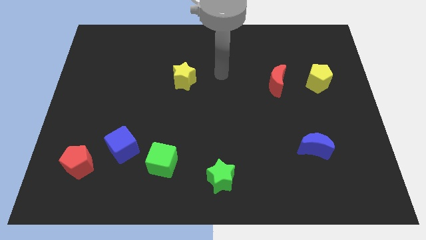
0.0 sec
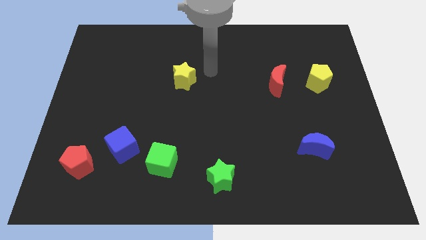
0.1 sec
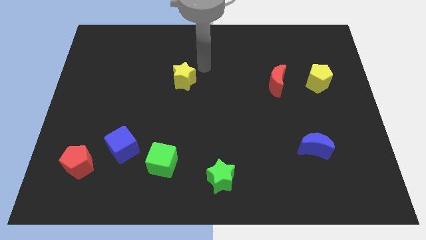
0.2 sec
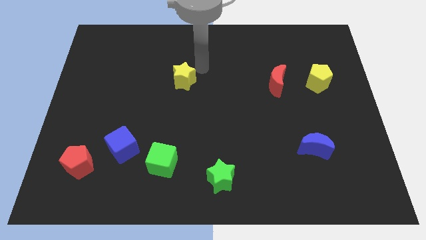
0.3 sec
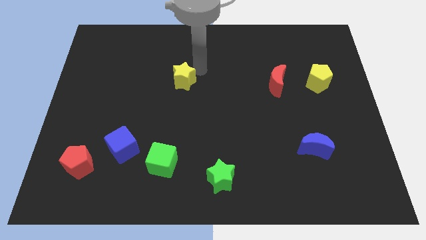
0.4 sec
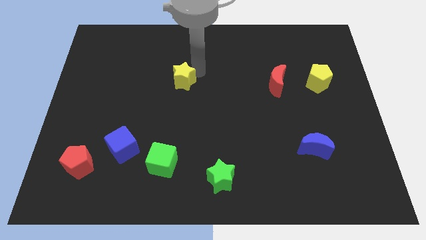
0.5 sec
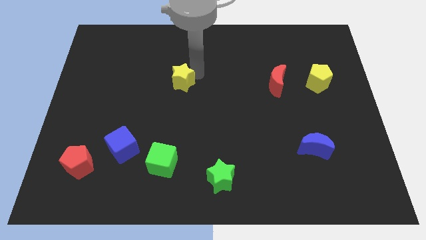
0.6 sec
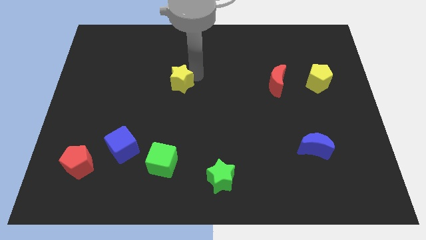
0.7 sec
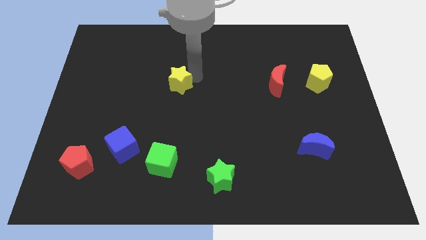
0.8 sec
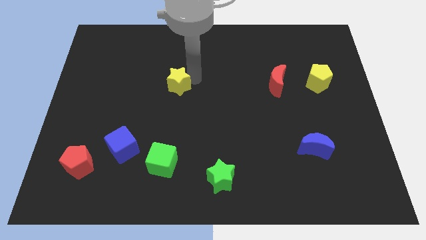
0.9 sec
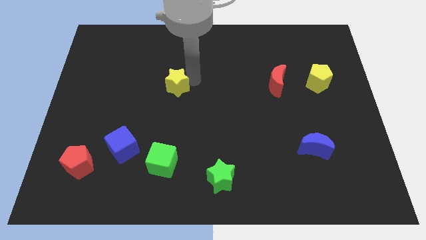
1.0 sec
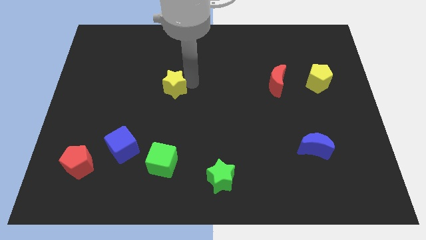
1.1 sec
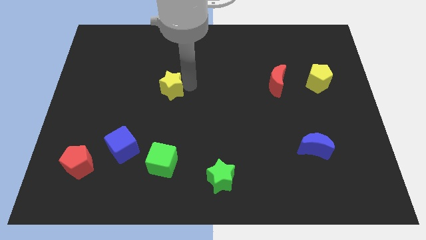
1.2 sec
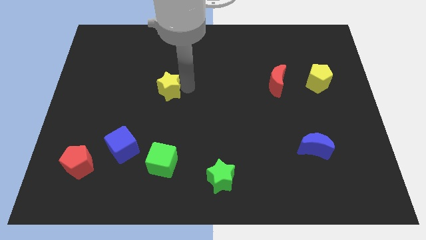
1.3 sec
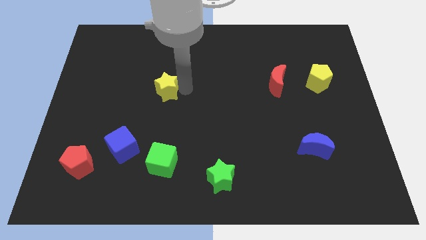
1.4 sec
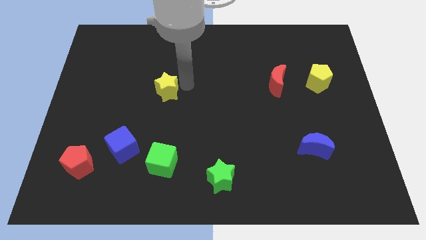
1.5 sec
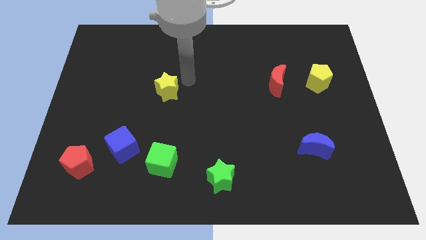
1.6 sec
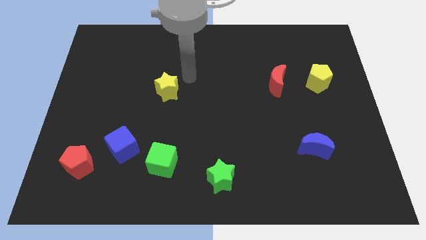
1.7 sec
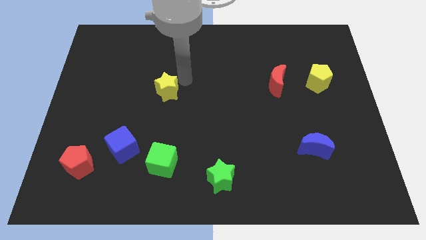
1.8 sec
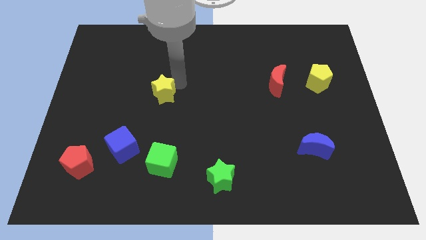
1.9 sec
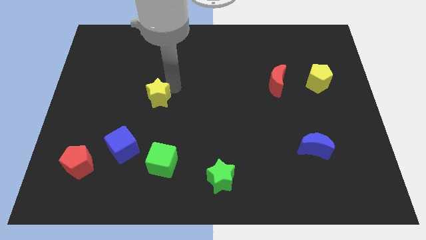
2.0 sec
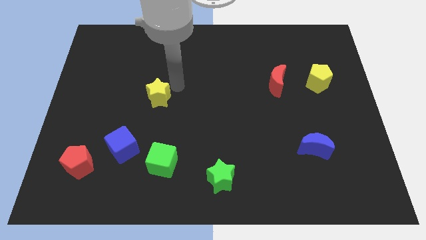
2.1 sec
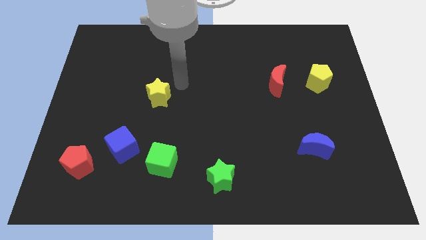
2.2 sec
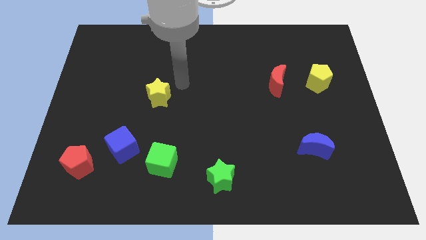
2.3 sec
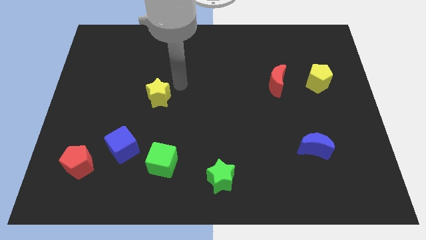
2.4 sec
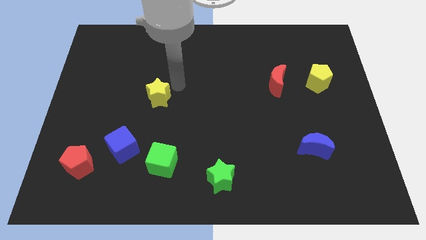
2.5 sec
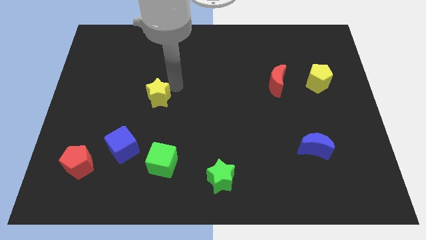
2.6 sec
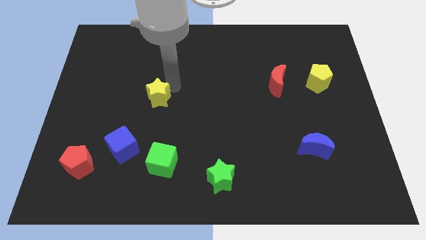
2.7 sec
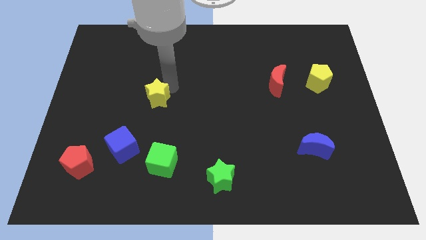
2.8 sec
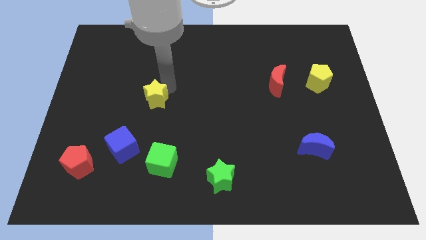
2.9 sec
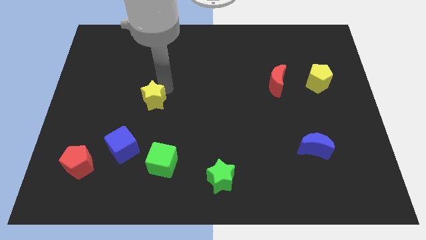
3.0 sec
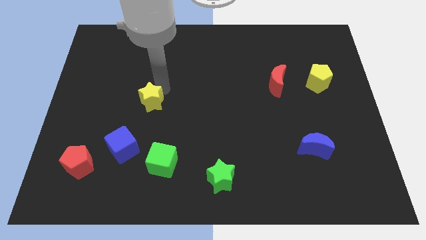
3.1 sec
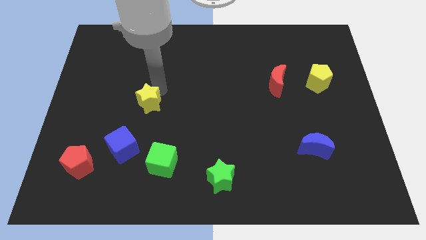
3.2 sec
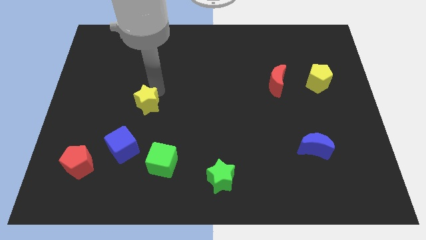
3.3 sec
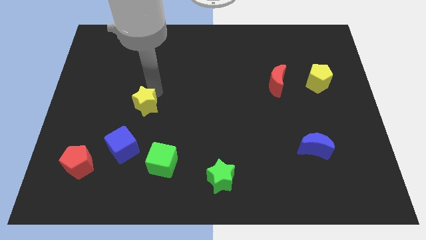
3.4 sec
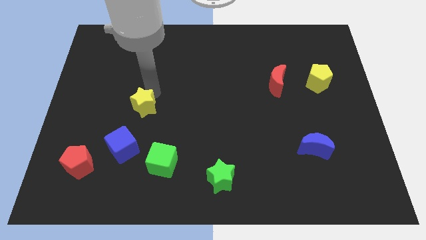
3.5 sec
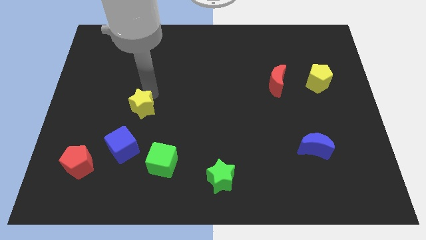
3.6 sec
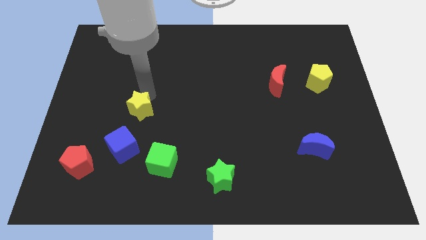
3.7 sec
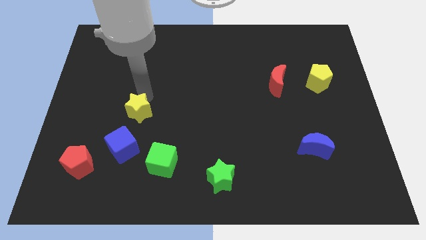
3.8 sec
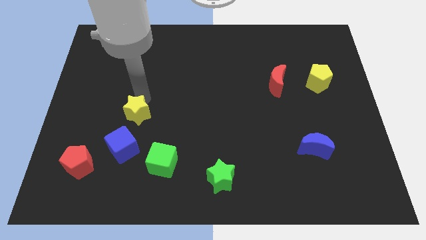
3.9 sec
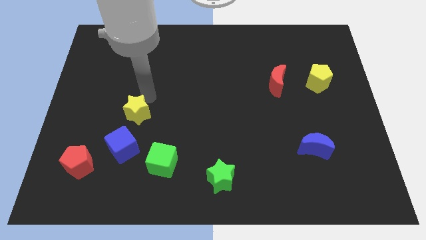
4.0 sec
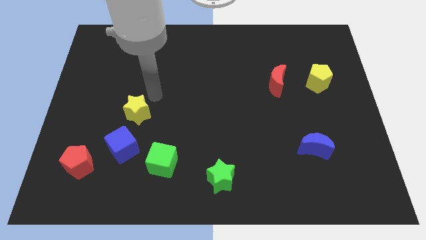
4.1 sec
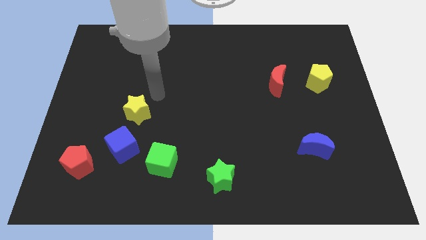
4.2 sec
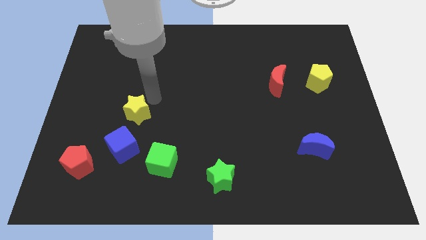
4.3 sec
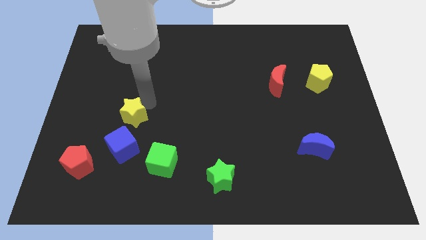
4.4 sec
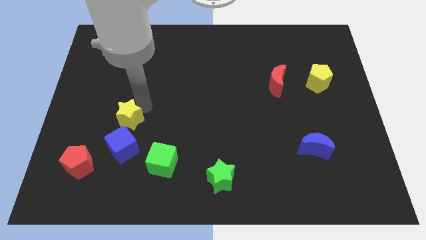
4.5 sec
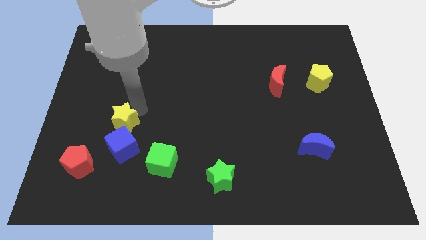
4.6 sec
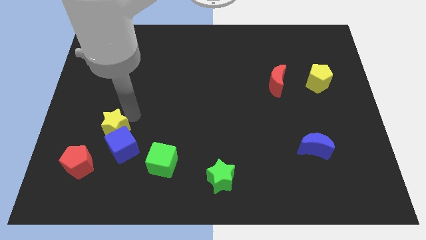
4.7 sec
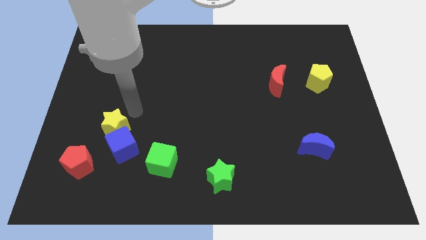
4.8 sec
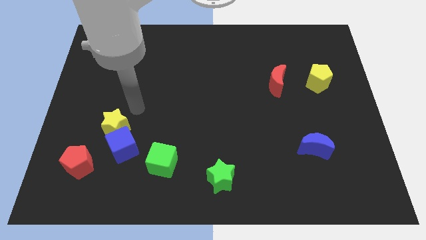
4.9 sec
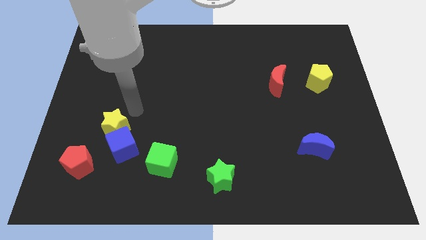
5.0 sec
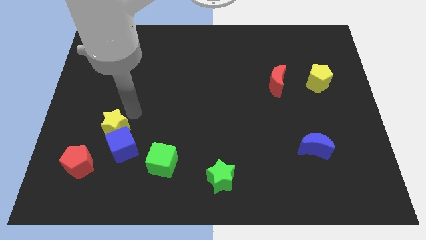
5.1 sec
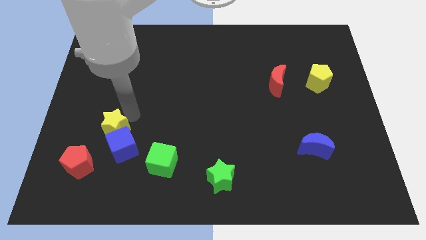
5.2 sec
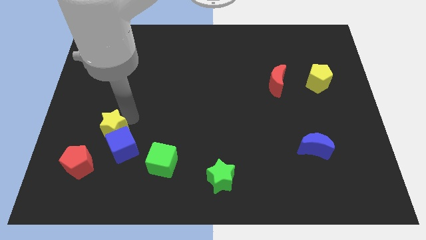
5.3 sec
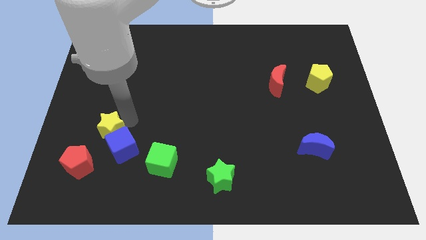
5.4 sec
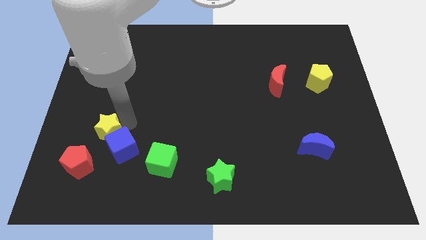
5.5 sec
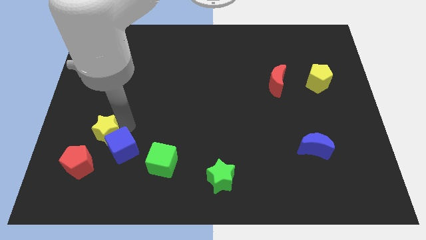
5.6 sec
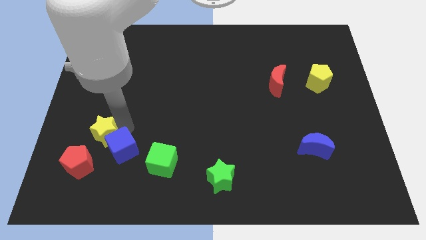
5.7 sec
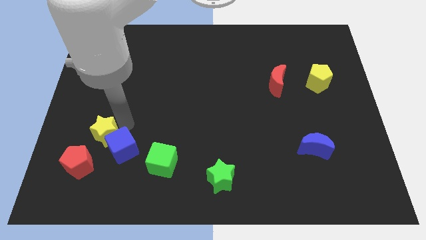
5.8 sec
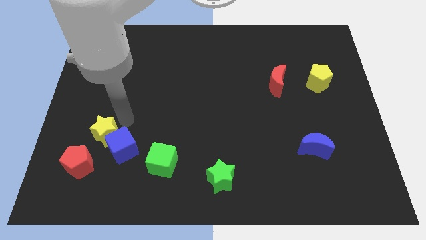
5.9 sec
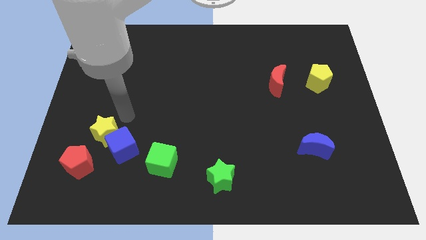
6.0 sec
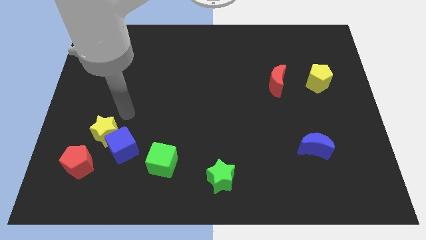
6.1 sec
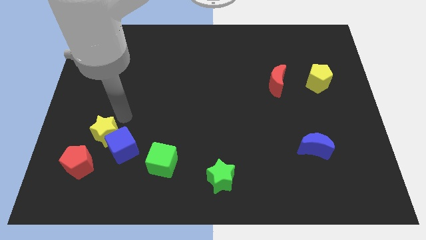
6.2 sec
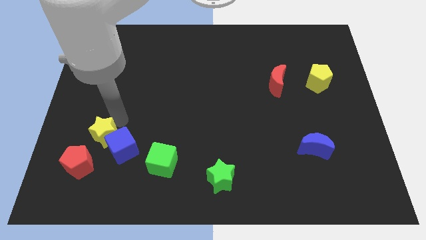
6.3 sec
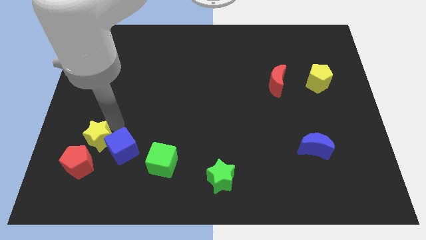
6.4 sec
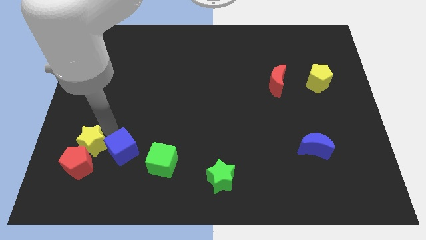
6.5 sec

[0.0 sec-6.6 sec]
slide the yellow star next to the red pentagon
